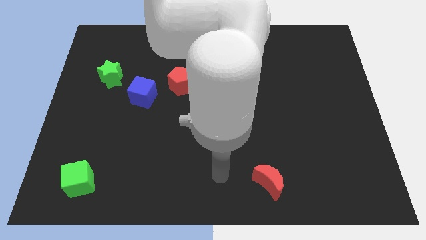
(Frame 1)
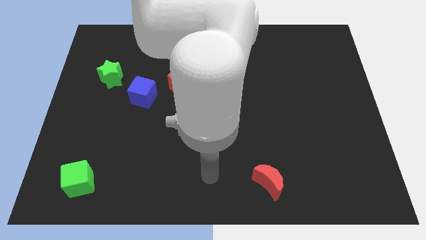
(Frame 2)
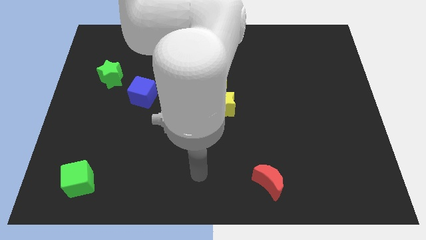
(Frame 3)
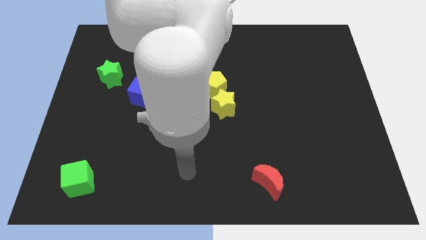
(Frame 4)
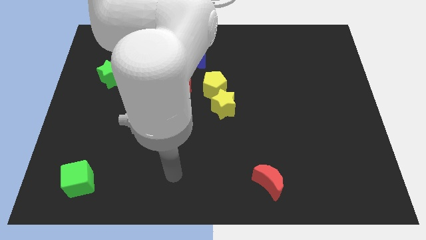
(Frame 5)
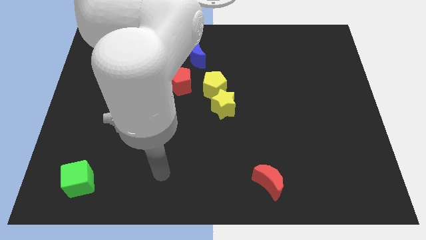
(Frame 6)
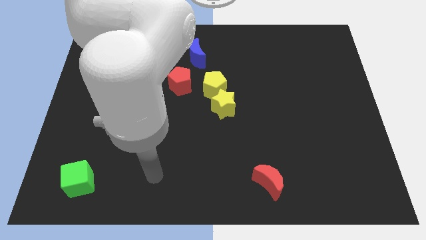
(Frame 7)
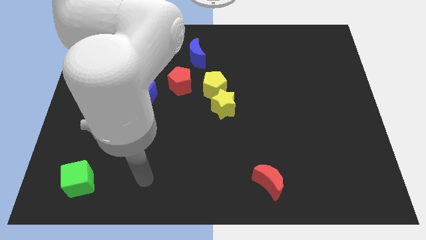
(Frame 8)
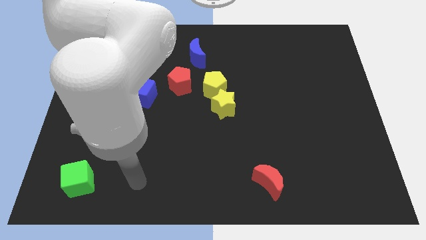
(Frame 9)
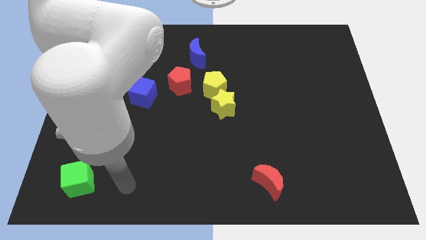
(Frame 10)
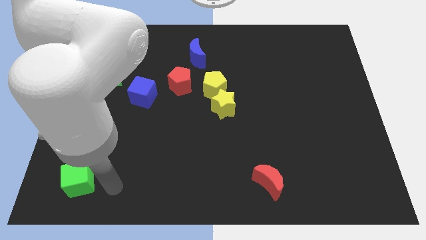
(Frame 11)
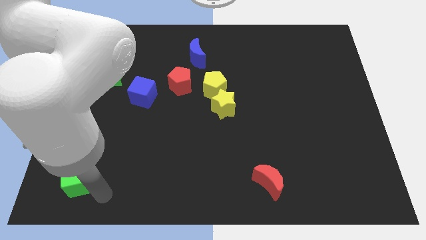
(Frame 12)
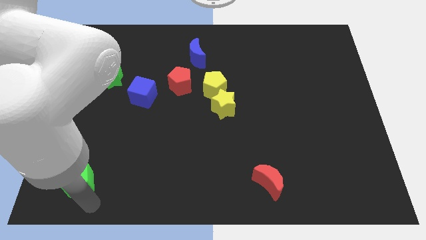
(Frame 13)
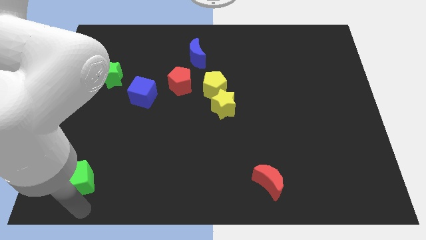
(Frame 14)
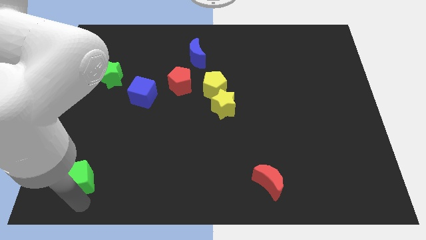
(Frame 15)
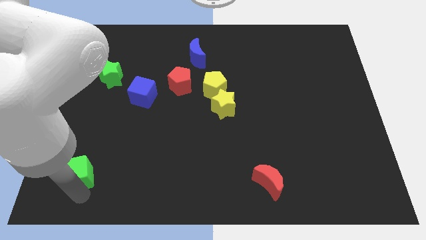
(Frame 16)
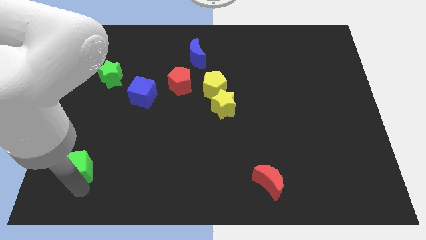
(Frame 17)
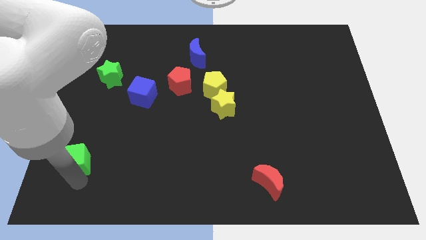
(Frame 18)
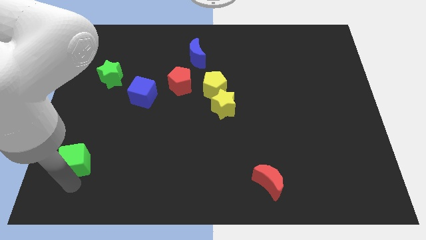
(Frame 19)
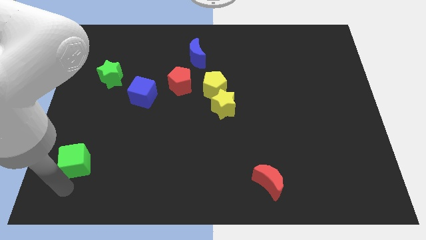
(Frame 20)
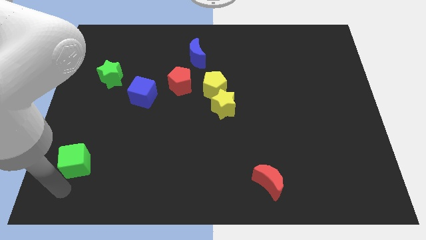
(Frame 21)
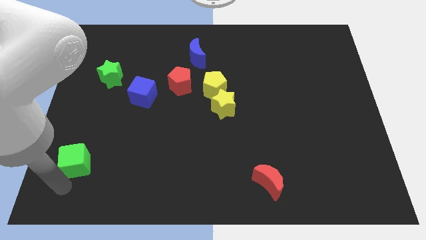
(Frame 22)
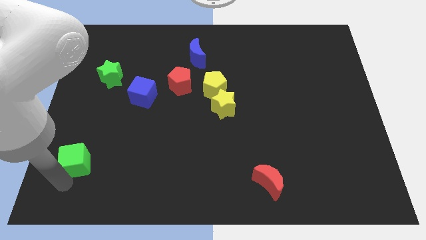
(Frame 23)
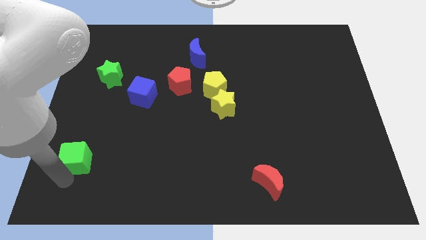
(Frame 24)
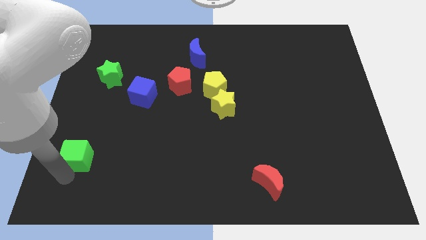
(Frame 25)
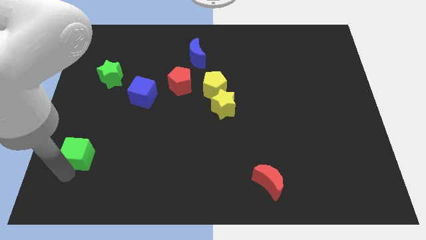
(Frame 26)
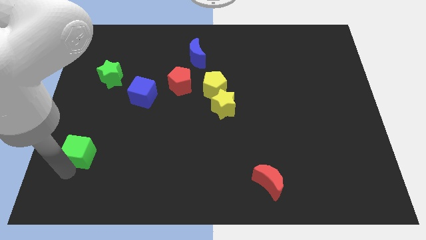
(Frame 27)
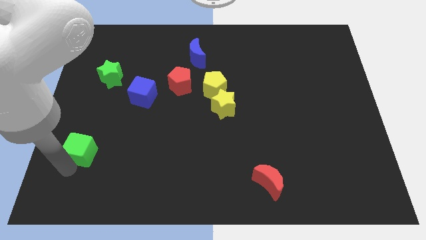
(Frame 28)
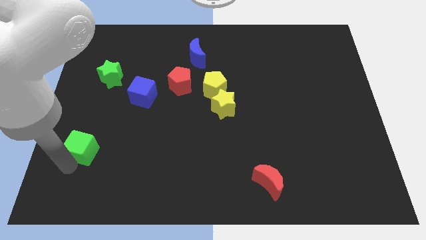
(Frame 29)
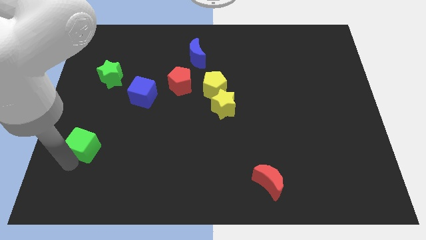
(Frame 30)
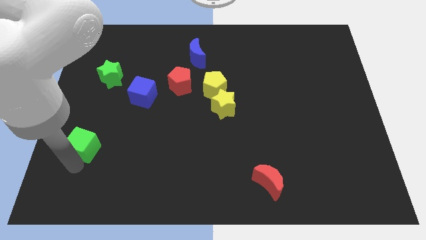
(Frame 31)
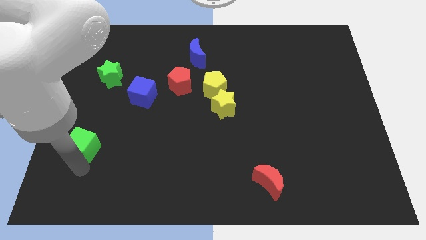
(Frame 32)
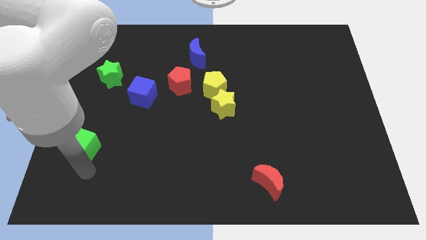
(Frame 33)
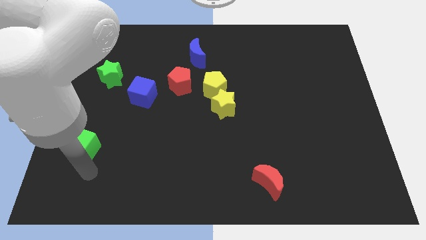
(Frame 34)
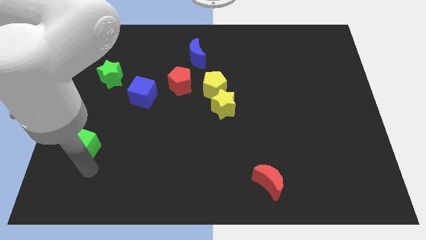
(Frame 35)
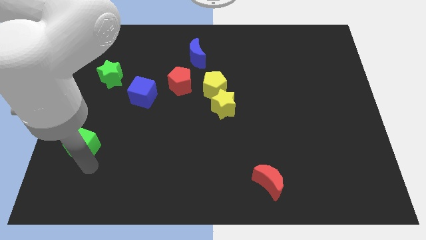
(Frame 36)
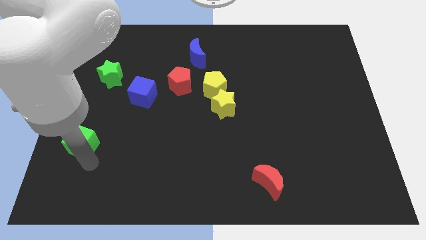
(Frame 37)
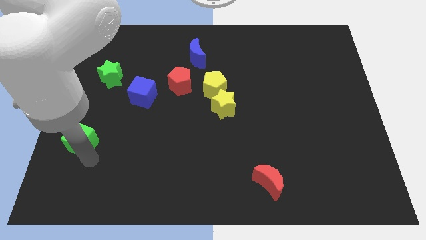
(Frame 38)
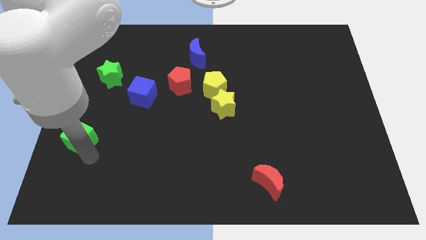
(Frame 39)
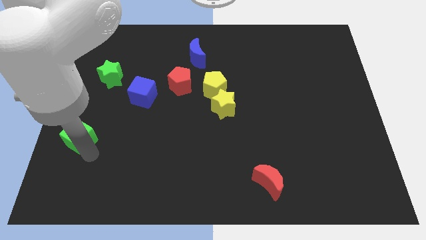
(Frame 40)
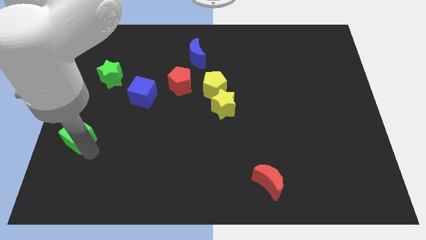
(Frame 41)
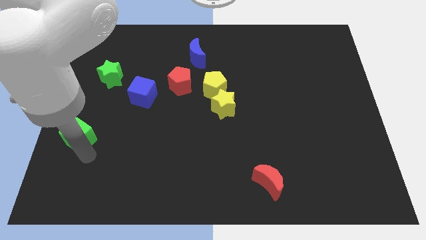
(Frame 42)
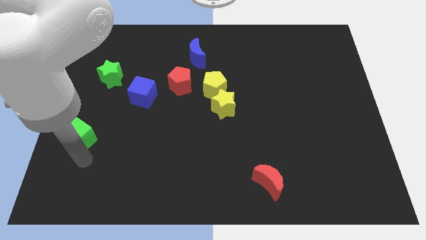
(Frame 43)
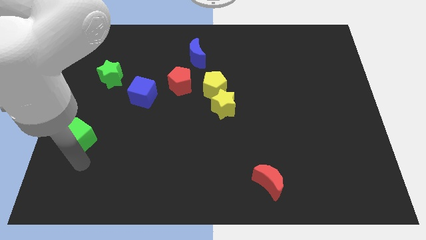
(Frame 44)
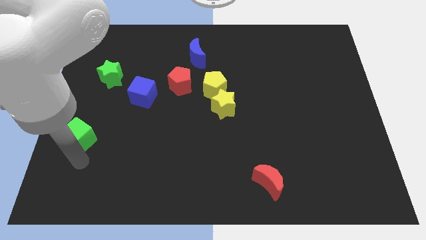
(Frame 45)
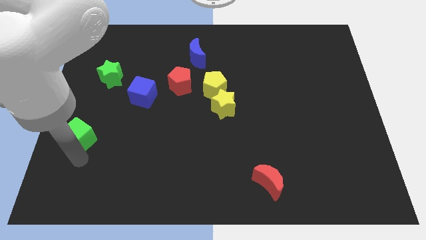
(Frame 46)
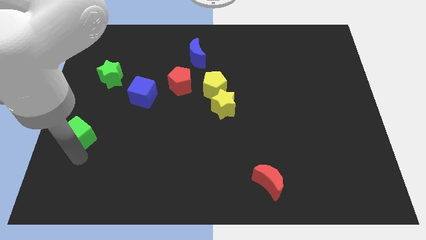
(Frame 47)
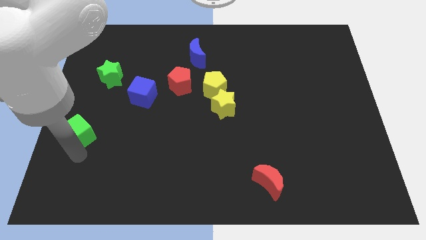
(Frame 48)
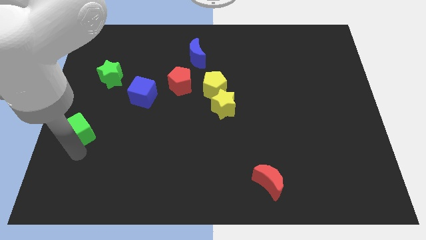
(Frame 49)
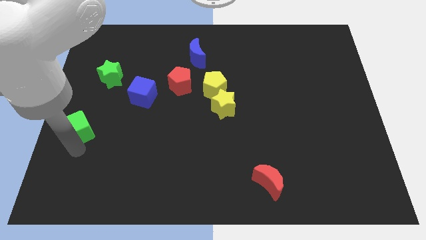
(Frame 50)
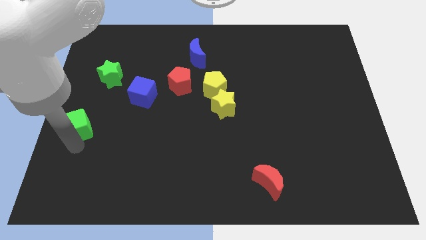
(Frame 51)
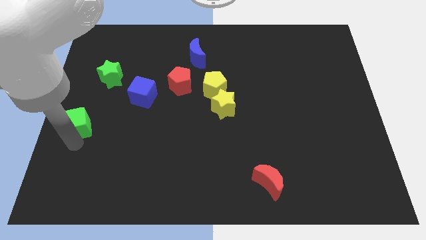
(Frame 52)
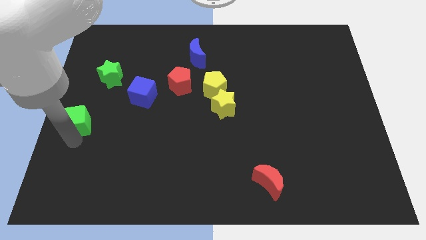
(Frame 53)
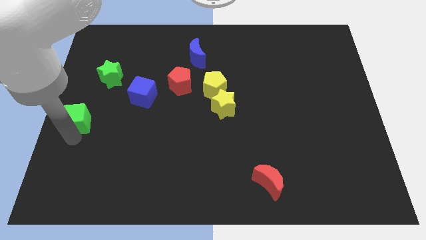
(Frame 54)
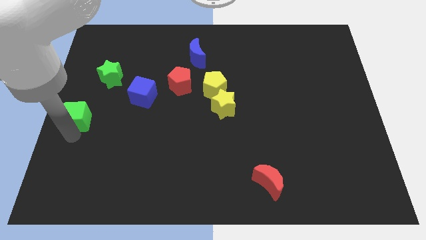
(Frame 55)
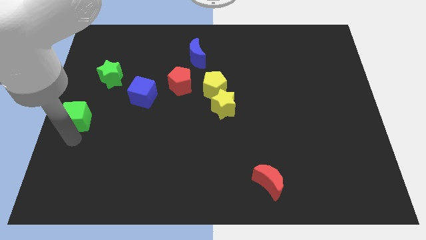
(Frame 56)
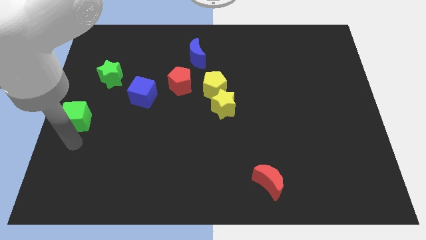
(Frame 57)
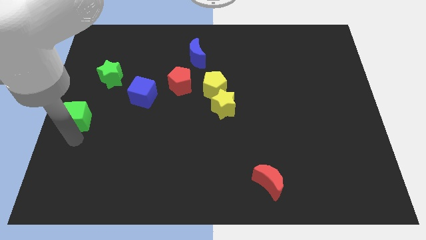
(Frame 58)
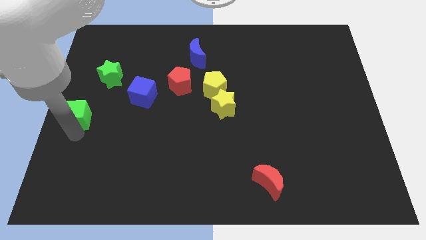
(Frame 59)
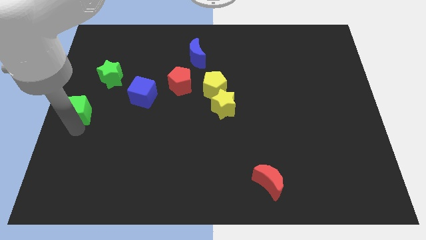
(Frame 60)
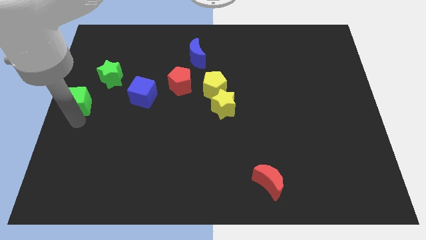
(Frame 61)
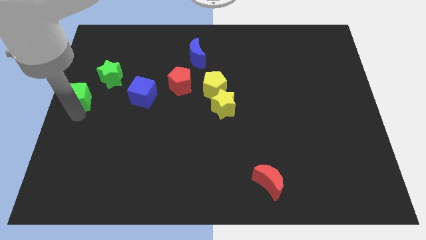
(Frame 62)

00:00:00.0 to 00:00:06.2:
move the green cube upwards

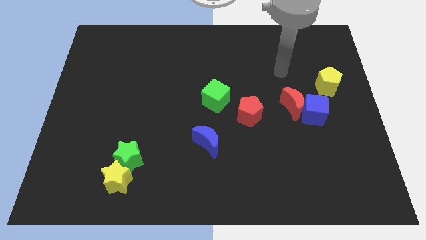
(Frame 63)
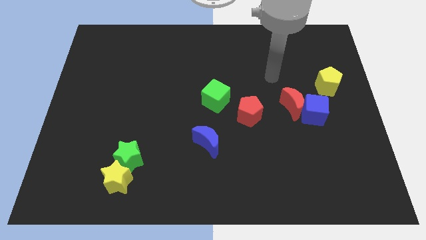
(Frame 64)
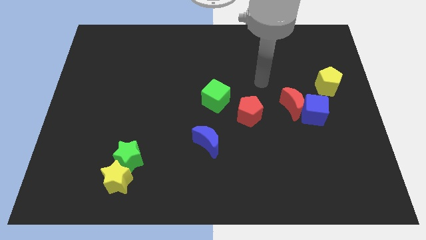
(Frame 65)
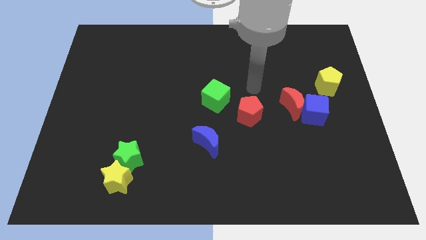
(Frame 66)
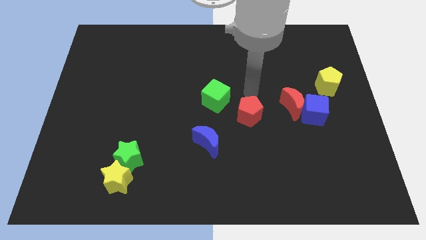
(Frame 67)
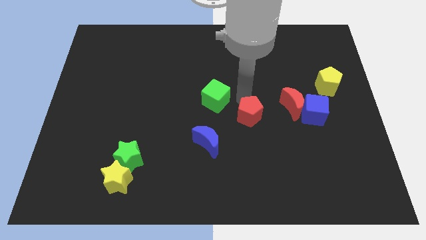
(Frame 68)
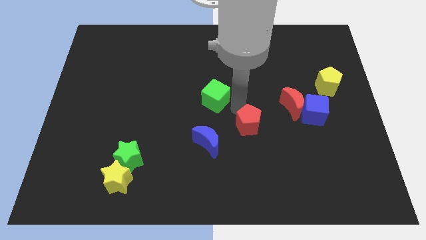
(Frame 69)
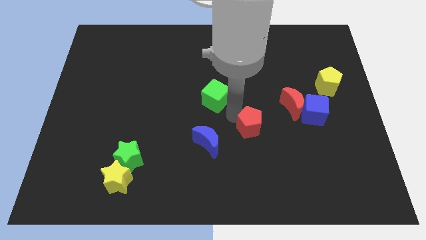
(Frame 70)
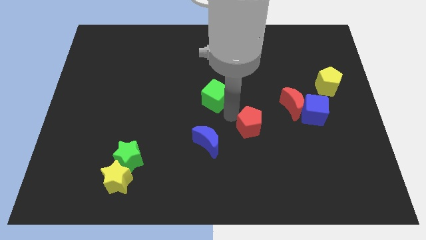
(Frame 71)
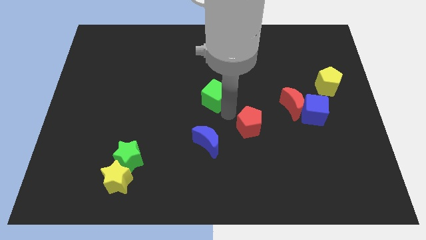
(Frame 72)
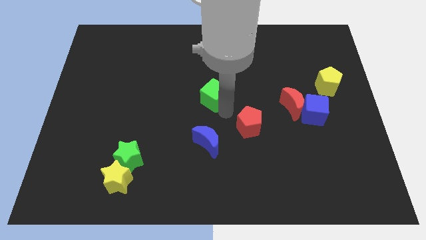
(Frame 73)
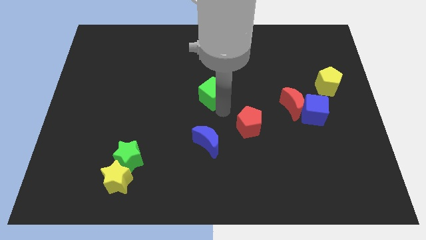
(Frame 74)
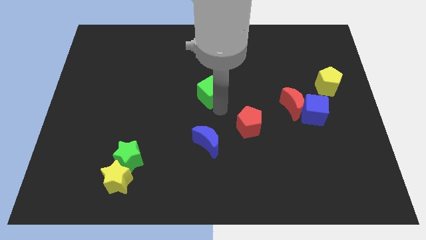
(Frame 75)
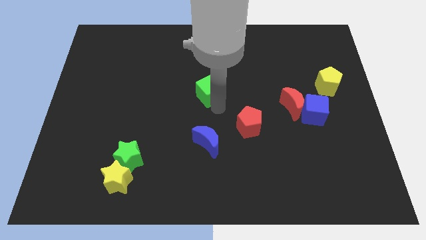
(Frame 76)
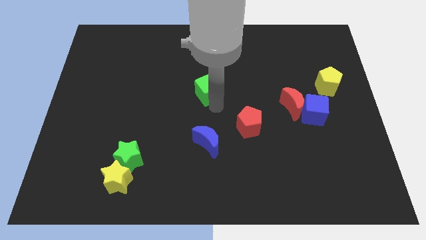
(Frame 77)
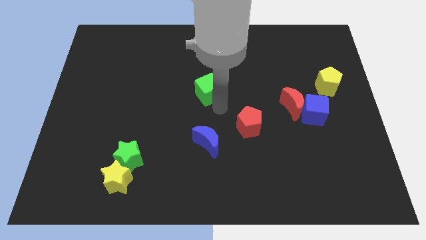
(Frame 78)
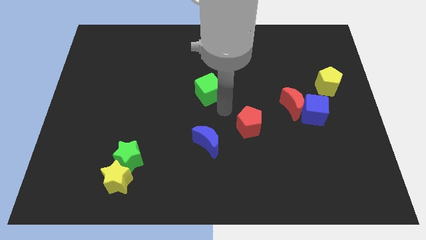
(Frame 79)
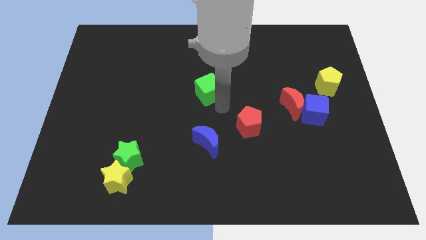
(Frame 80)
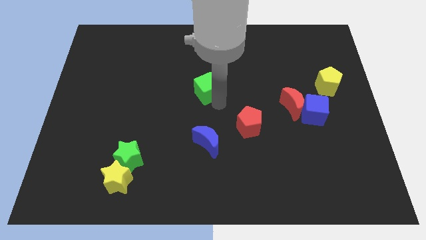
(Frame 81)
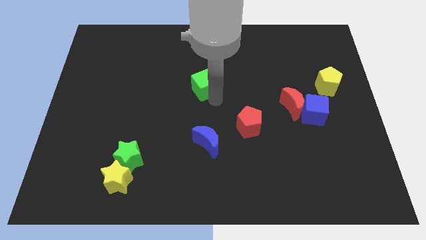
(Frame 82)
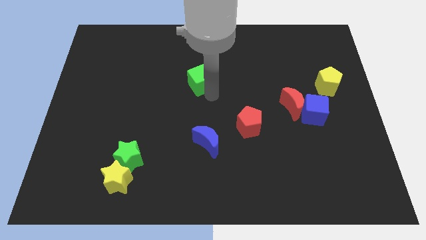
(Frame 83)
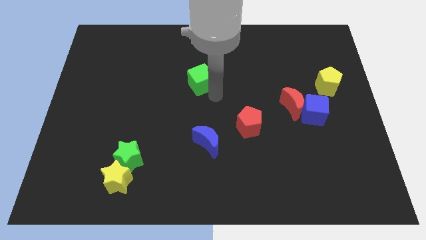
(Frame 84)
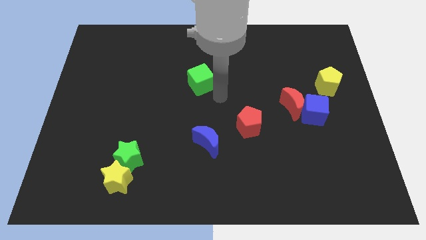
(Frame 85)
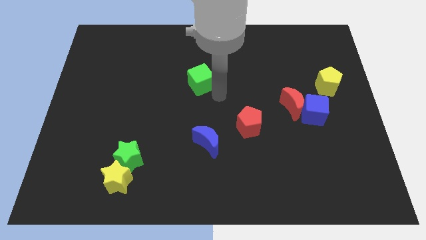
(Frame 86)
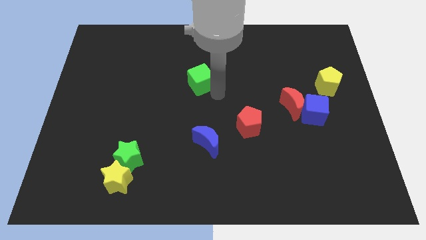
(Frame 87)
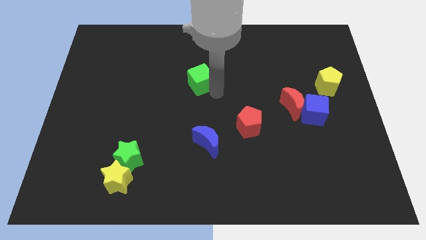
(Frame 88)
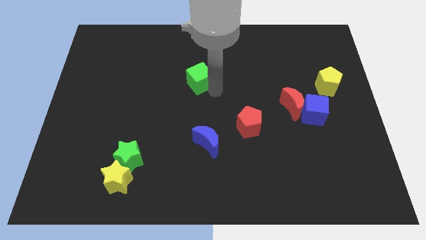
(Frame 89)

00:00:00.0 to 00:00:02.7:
slide the green cube a little diagonally up and to the left
